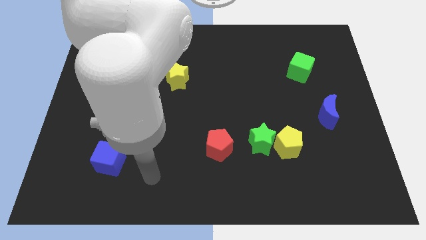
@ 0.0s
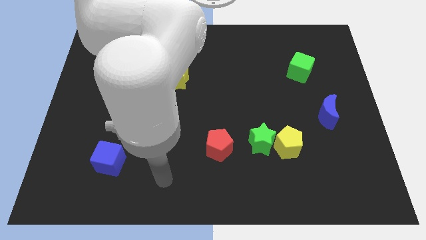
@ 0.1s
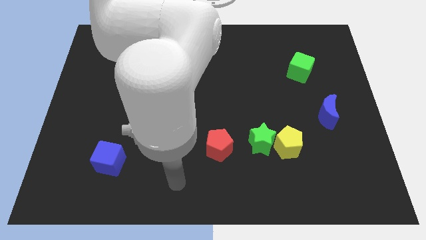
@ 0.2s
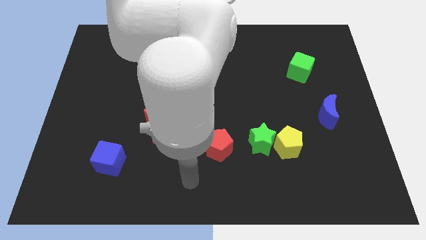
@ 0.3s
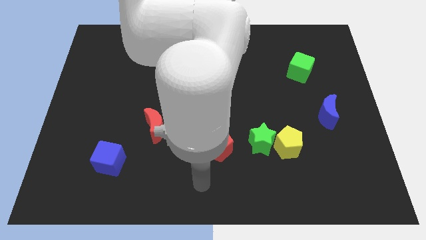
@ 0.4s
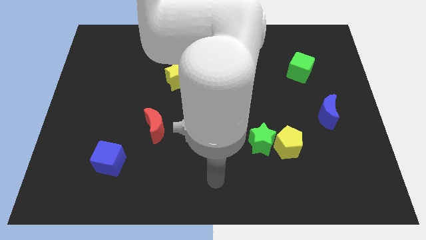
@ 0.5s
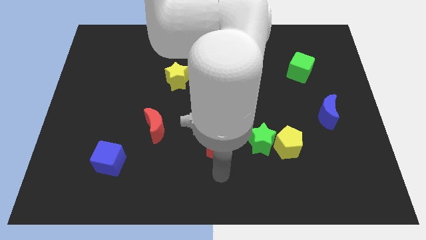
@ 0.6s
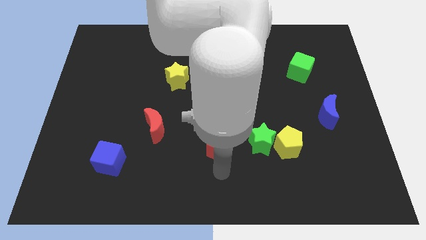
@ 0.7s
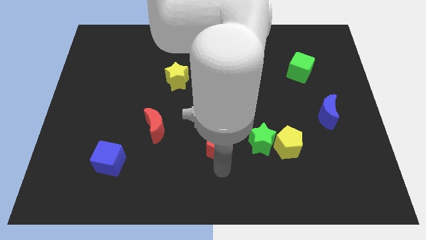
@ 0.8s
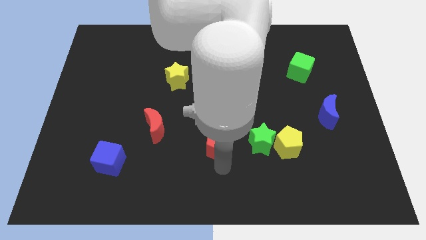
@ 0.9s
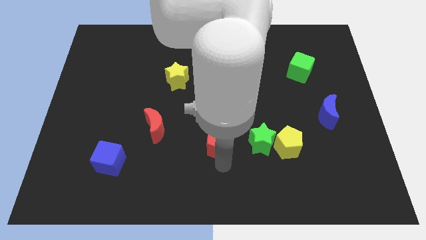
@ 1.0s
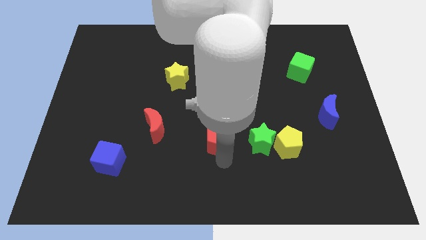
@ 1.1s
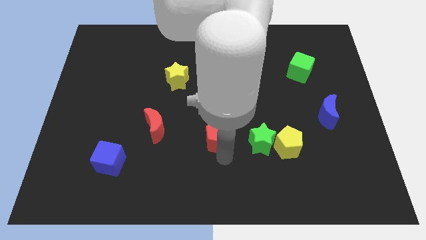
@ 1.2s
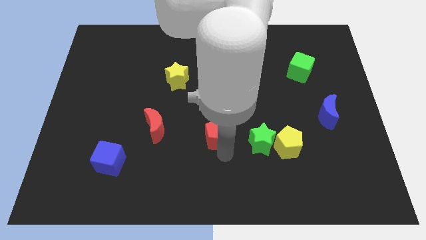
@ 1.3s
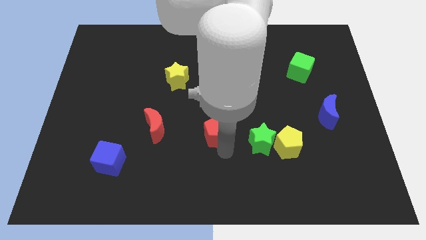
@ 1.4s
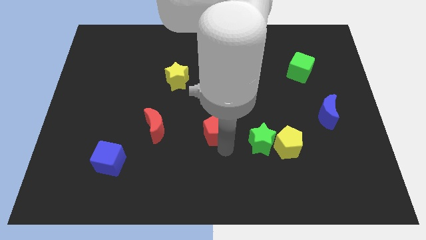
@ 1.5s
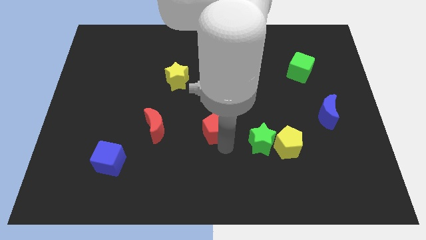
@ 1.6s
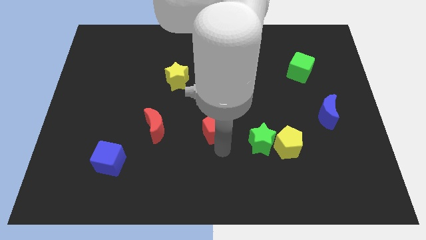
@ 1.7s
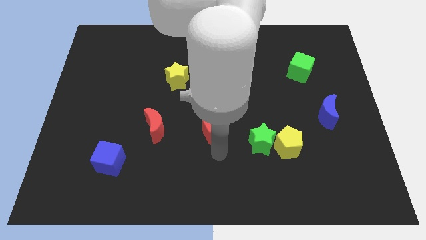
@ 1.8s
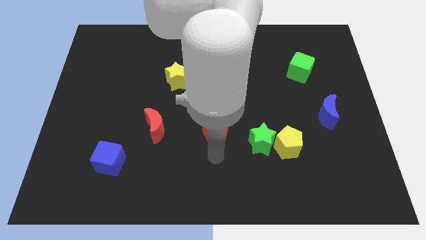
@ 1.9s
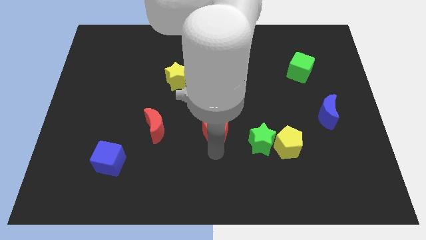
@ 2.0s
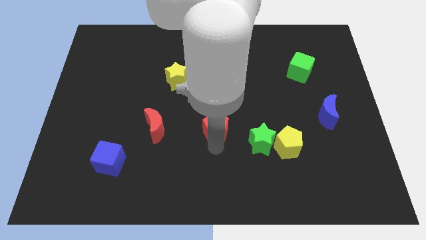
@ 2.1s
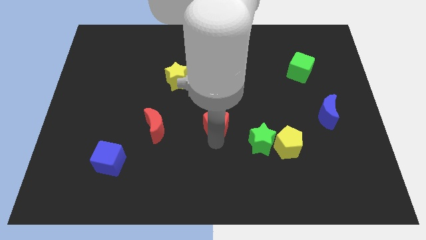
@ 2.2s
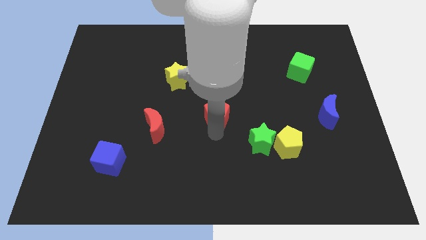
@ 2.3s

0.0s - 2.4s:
slightly move the red pentagon up

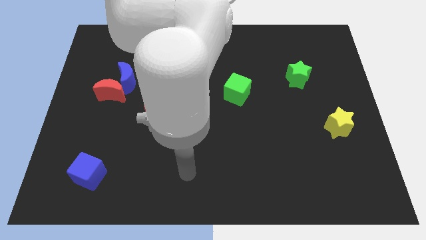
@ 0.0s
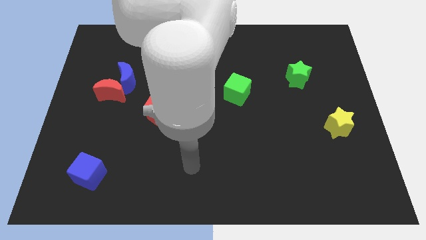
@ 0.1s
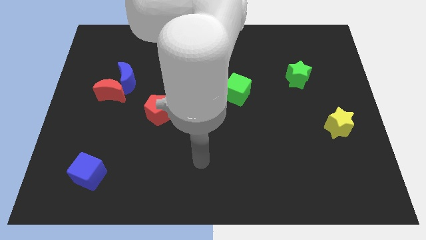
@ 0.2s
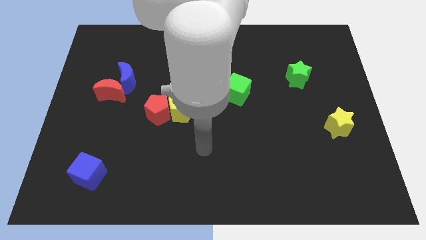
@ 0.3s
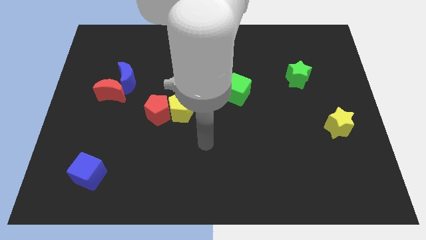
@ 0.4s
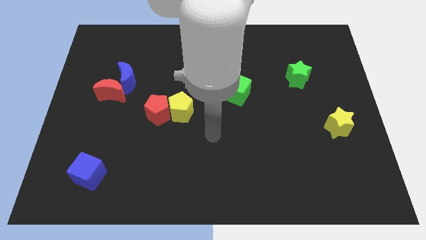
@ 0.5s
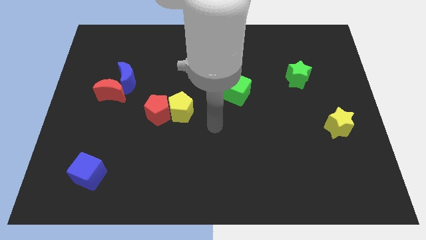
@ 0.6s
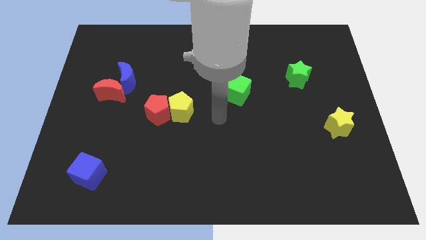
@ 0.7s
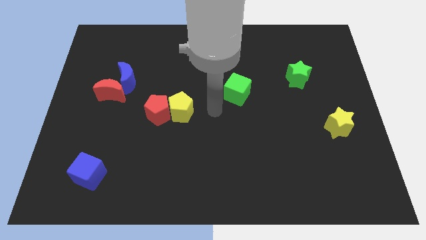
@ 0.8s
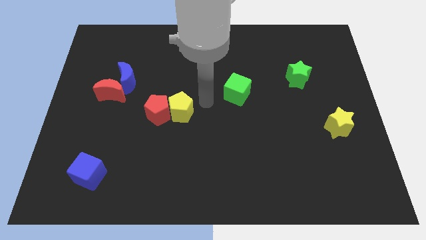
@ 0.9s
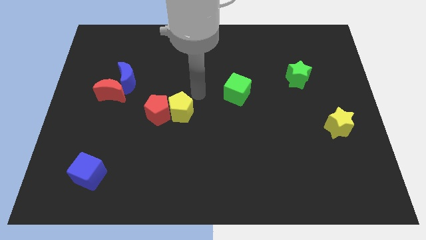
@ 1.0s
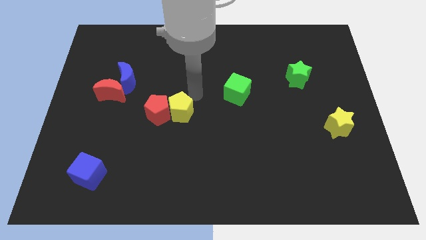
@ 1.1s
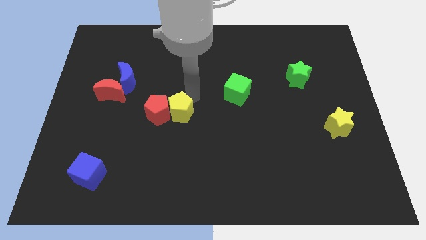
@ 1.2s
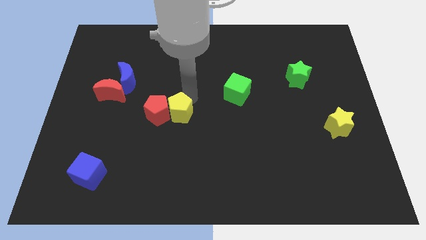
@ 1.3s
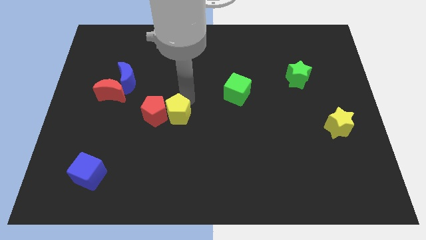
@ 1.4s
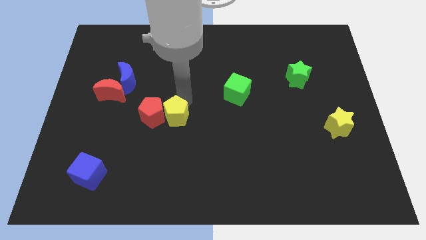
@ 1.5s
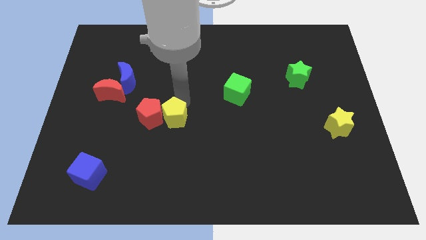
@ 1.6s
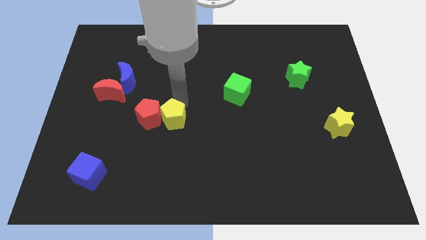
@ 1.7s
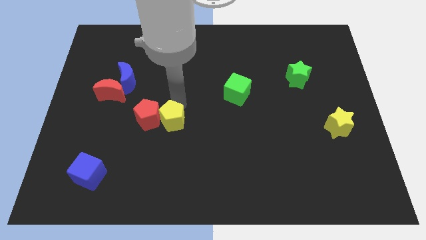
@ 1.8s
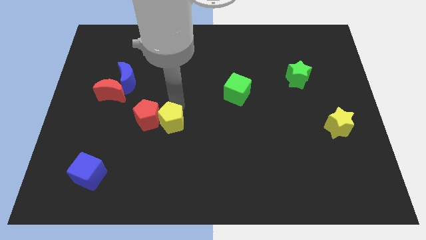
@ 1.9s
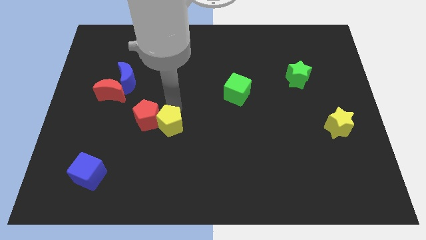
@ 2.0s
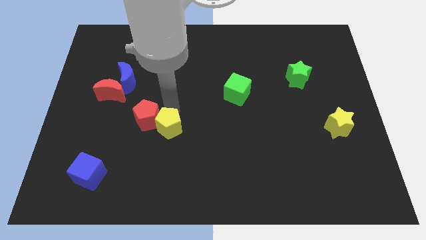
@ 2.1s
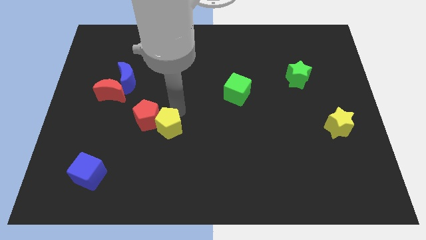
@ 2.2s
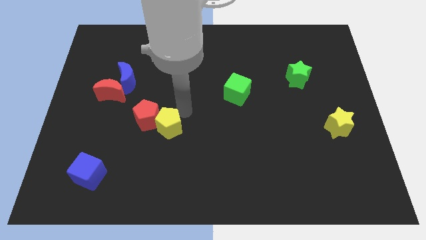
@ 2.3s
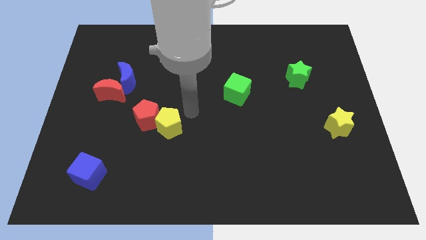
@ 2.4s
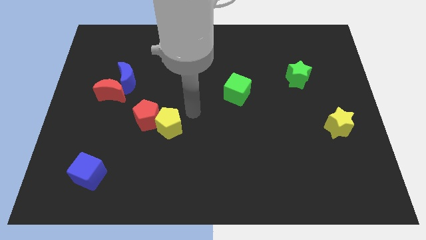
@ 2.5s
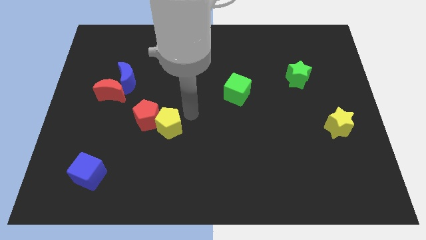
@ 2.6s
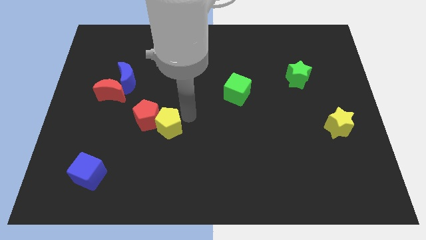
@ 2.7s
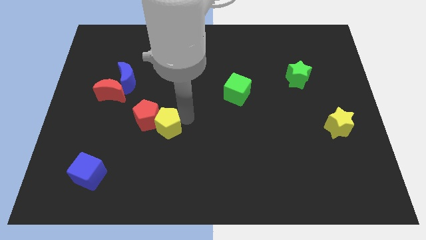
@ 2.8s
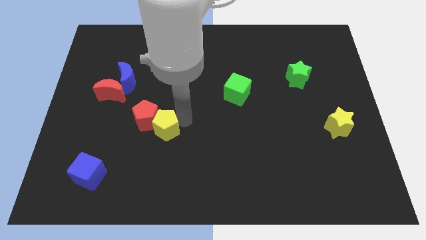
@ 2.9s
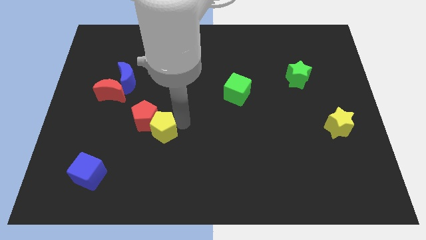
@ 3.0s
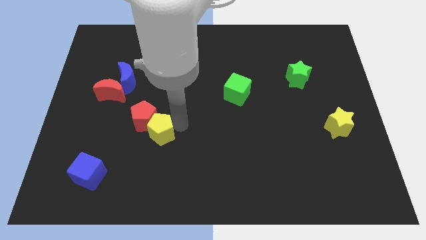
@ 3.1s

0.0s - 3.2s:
slightly move the yellow pentagon down and left

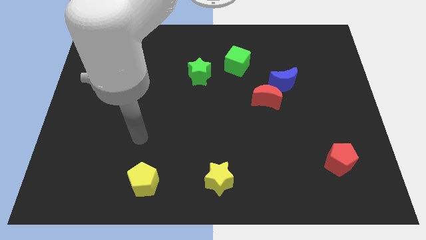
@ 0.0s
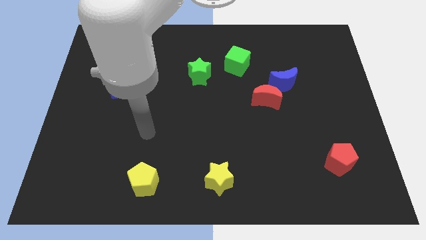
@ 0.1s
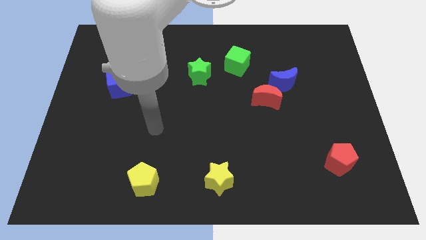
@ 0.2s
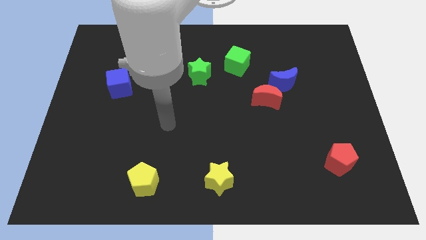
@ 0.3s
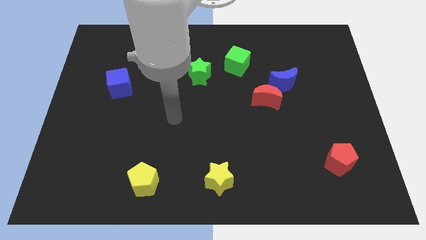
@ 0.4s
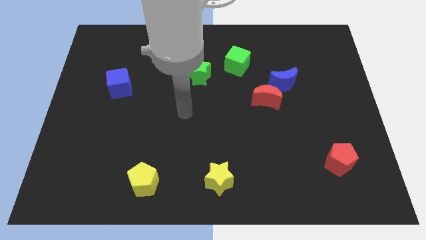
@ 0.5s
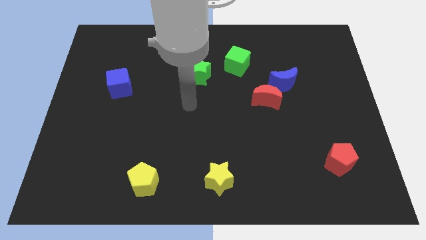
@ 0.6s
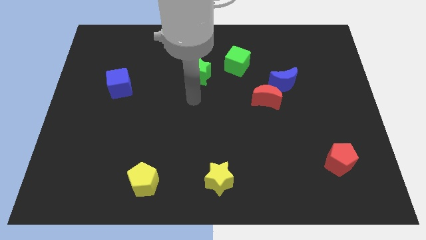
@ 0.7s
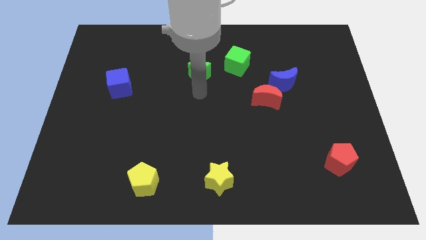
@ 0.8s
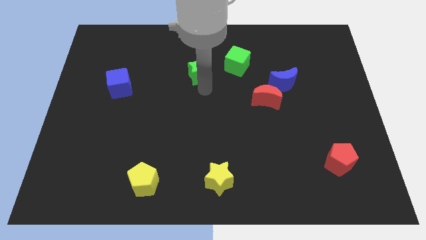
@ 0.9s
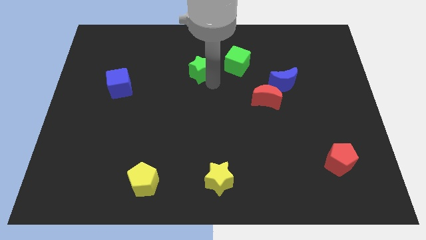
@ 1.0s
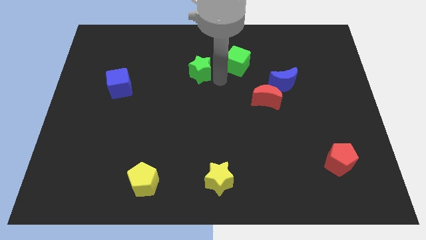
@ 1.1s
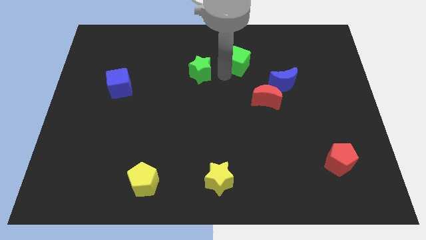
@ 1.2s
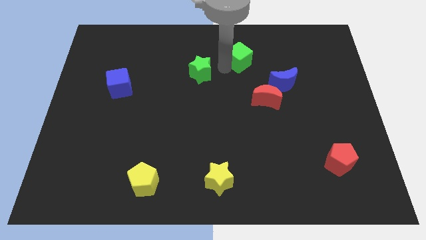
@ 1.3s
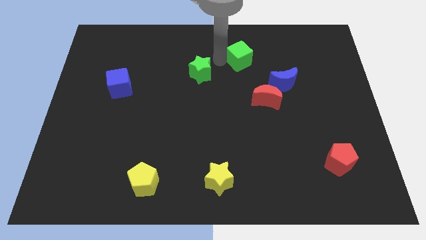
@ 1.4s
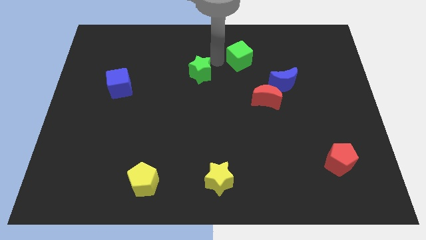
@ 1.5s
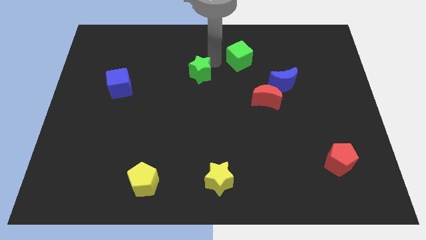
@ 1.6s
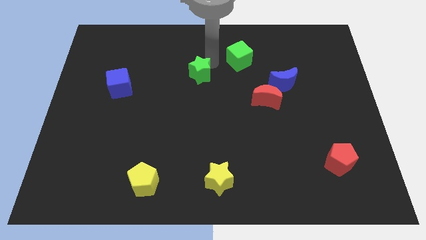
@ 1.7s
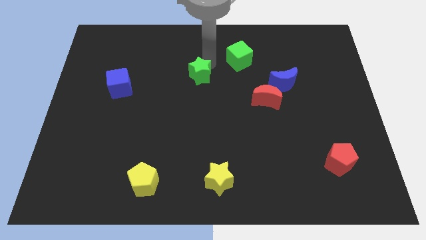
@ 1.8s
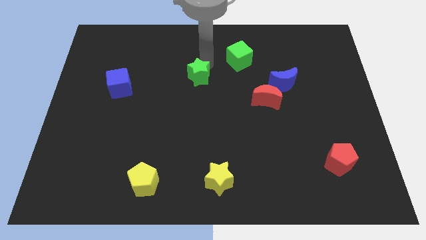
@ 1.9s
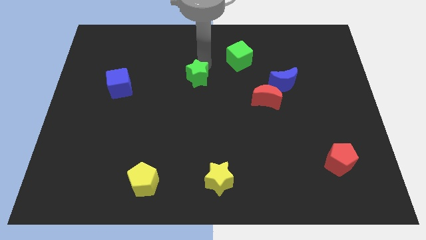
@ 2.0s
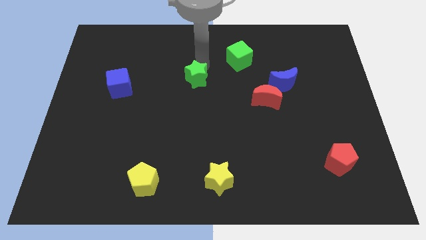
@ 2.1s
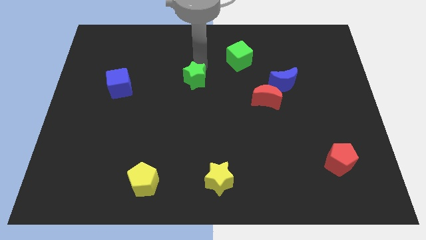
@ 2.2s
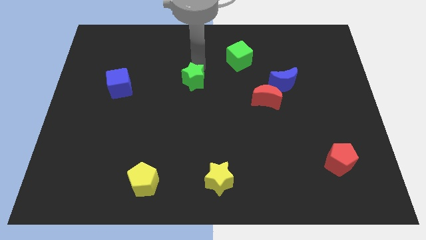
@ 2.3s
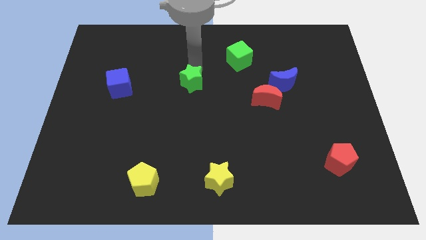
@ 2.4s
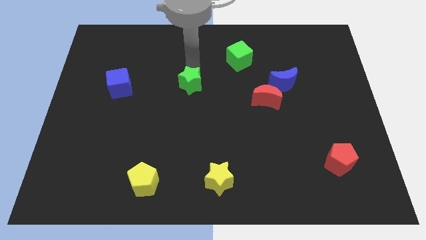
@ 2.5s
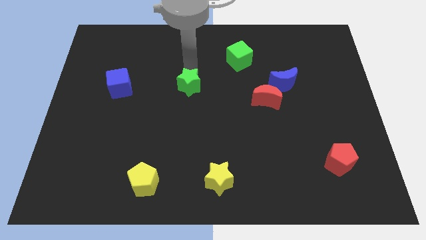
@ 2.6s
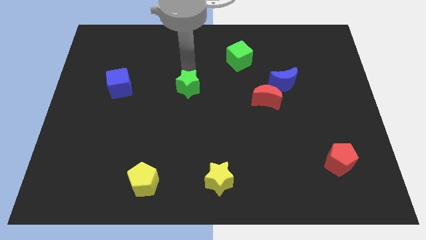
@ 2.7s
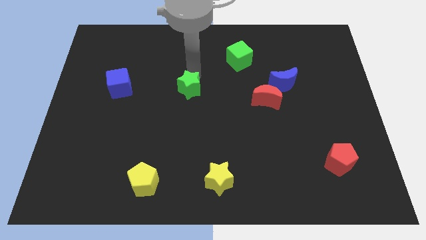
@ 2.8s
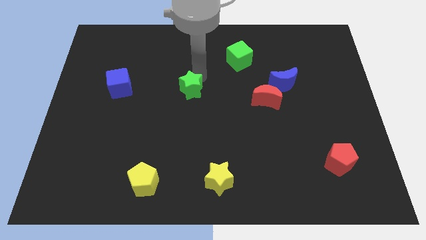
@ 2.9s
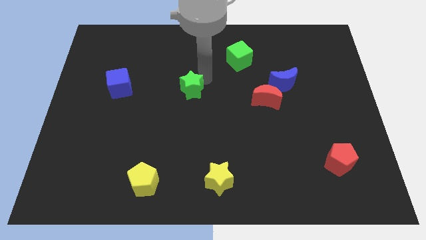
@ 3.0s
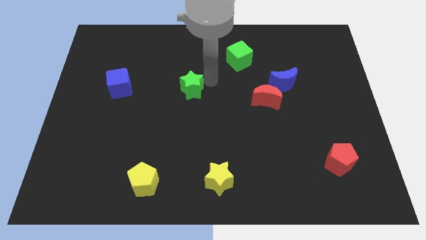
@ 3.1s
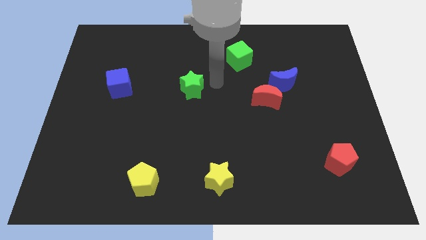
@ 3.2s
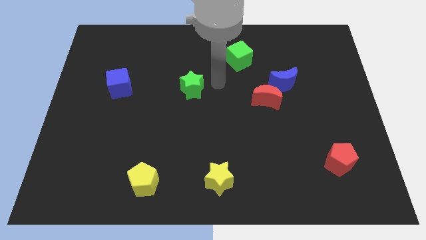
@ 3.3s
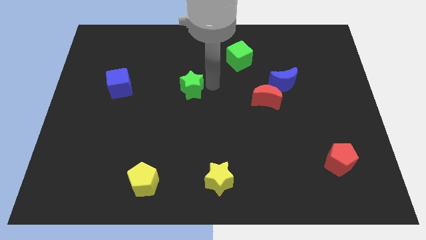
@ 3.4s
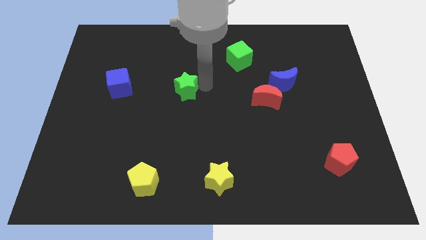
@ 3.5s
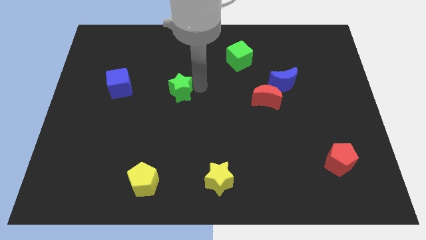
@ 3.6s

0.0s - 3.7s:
slightly push the green star diagonally down and left
